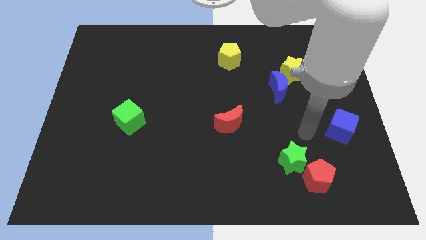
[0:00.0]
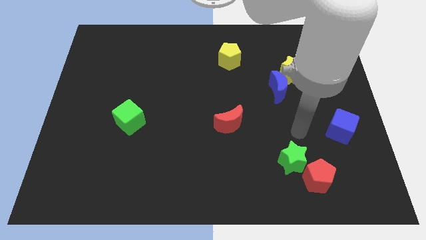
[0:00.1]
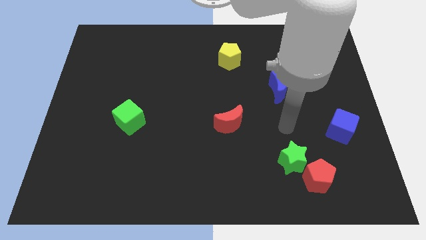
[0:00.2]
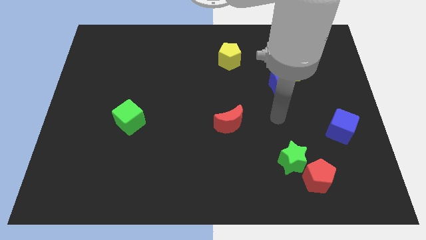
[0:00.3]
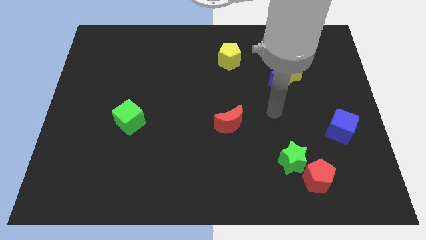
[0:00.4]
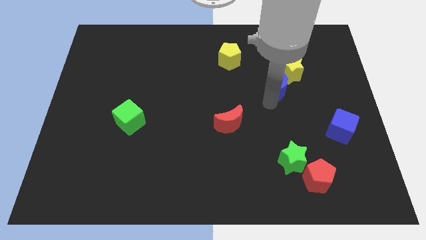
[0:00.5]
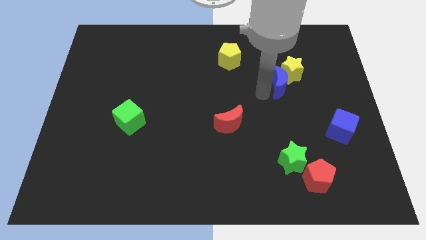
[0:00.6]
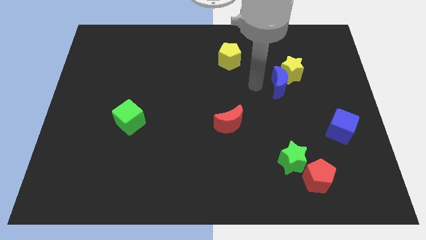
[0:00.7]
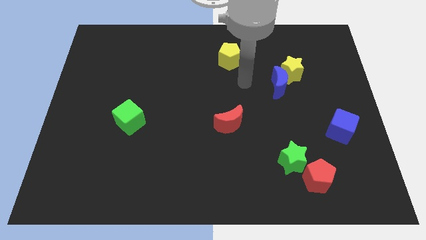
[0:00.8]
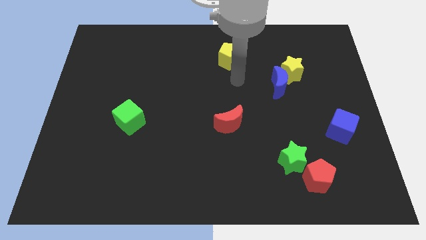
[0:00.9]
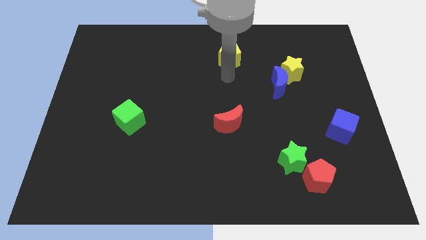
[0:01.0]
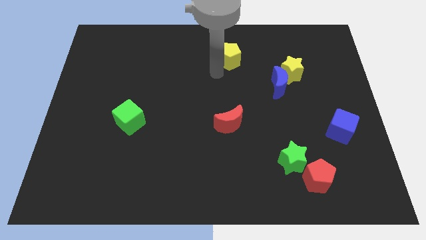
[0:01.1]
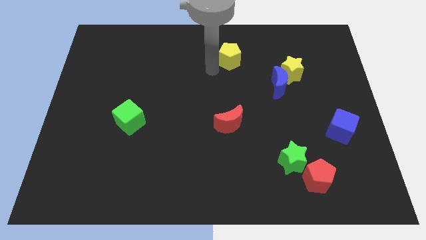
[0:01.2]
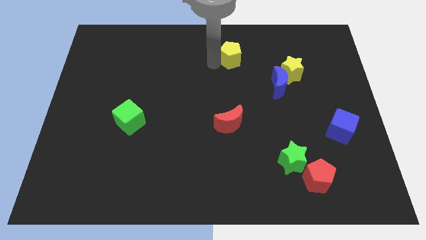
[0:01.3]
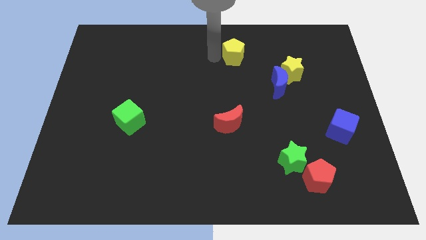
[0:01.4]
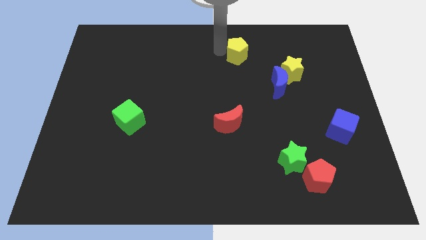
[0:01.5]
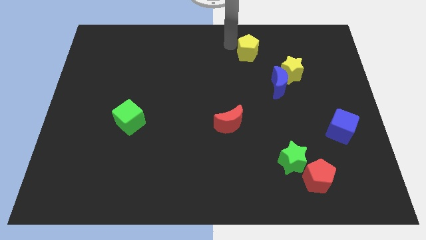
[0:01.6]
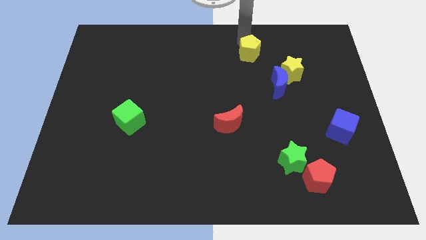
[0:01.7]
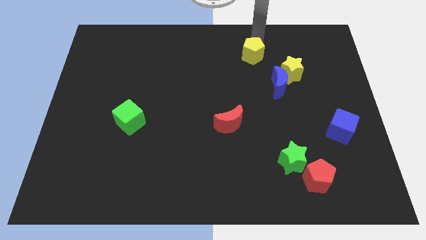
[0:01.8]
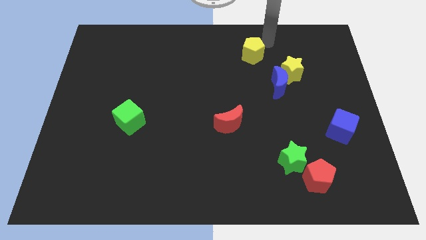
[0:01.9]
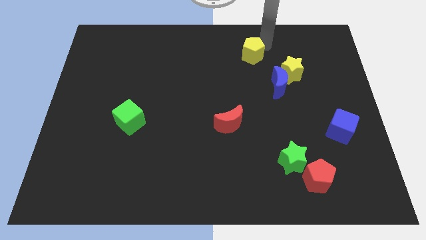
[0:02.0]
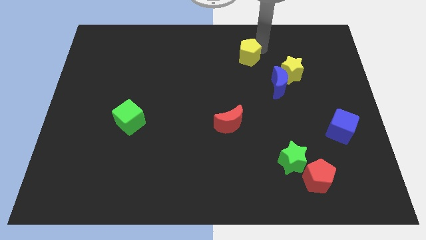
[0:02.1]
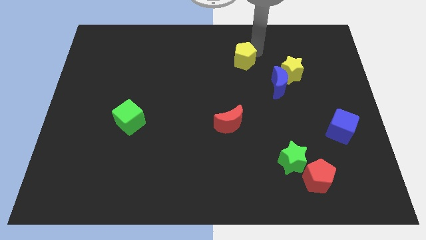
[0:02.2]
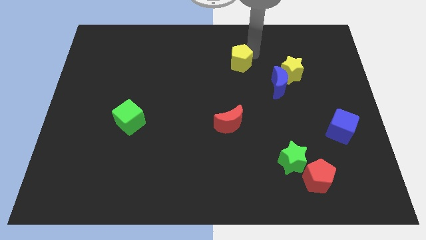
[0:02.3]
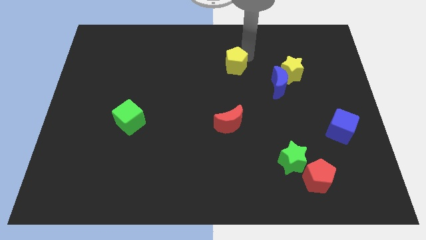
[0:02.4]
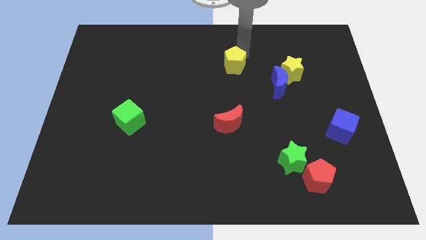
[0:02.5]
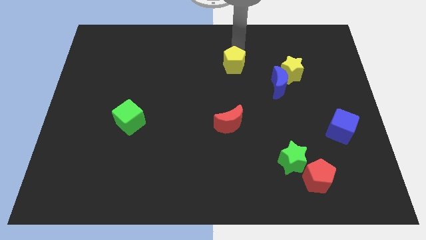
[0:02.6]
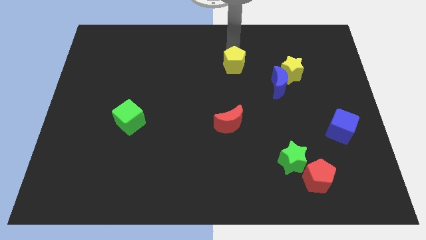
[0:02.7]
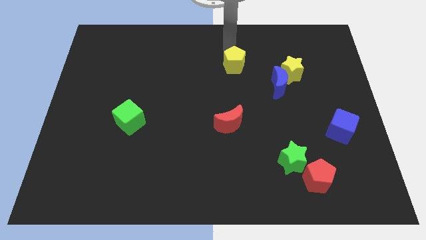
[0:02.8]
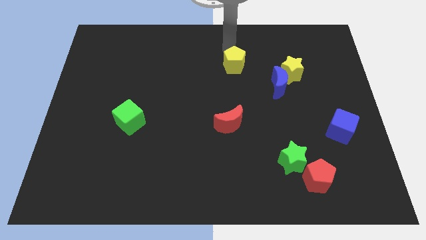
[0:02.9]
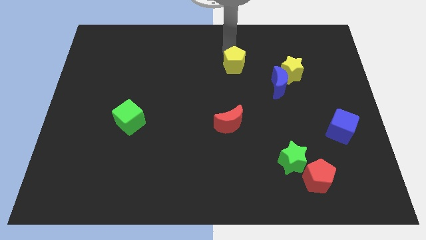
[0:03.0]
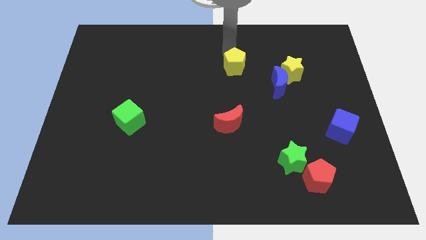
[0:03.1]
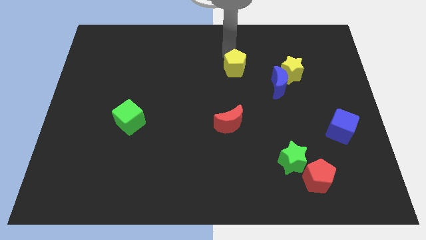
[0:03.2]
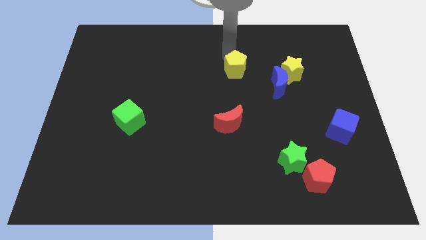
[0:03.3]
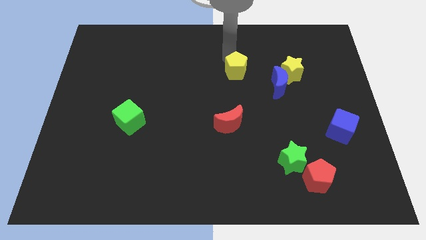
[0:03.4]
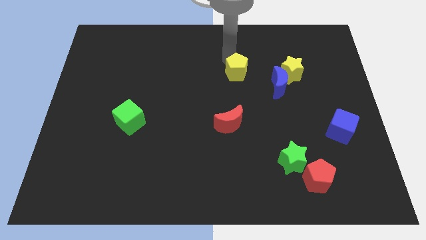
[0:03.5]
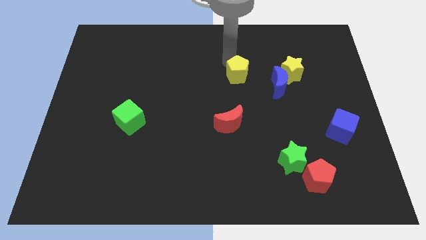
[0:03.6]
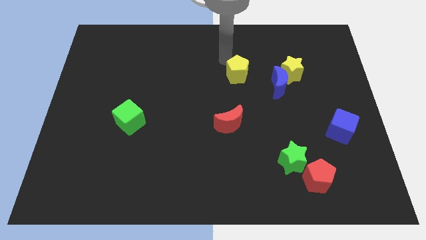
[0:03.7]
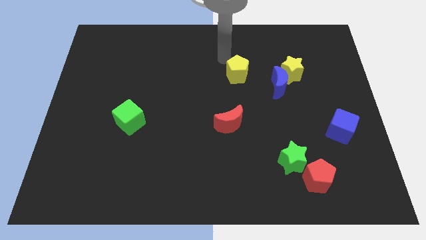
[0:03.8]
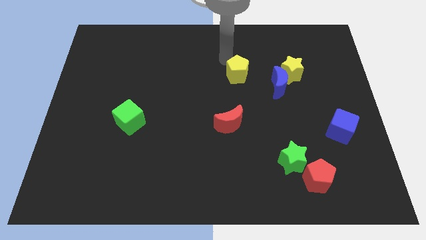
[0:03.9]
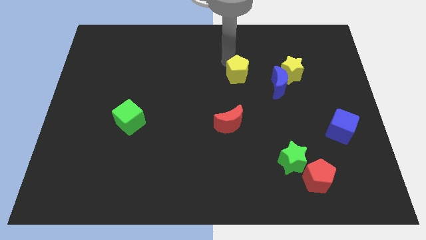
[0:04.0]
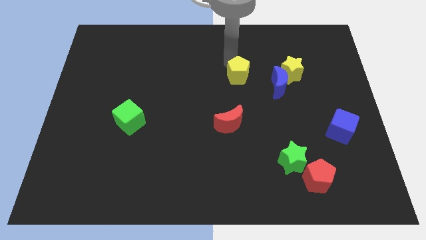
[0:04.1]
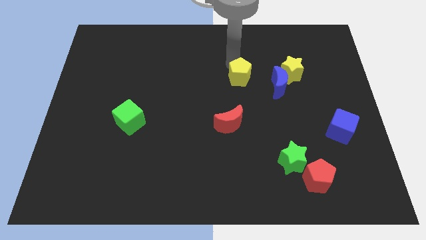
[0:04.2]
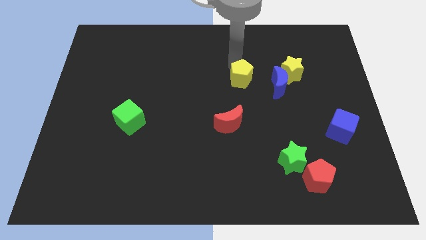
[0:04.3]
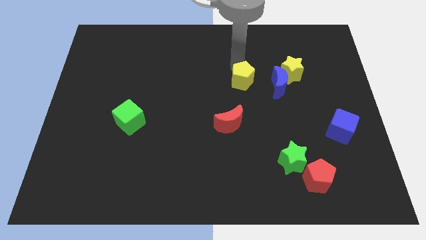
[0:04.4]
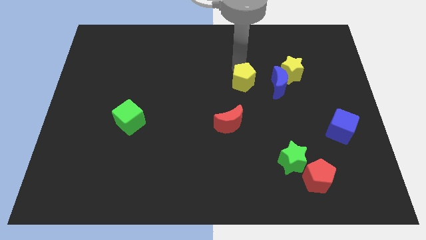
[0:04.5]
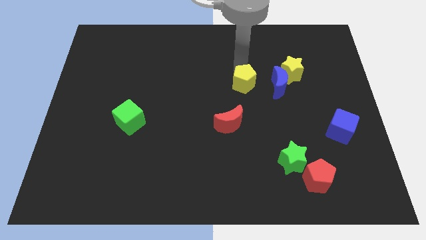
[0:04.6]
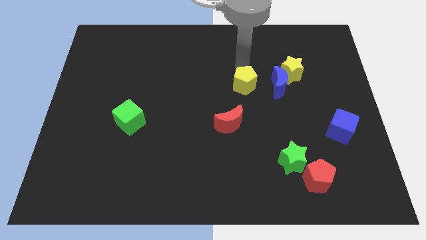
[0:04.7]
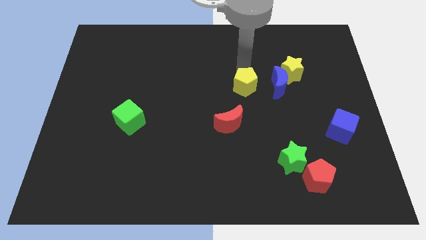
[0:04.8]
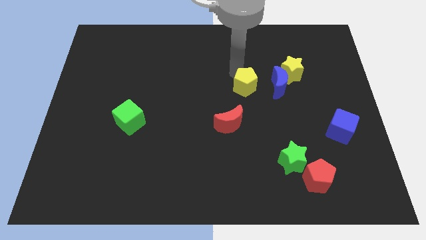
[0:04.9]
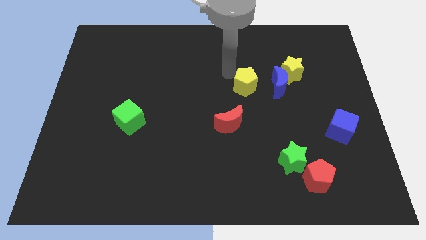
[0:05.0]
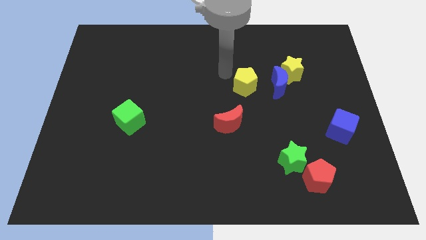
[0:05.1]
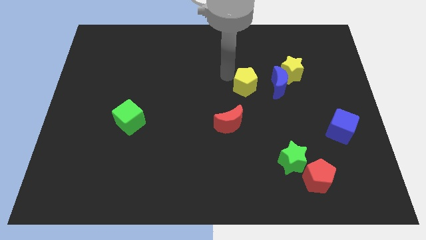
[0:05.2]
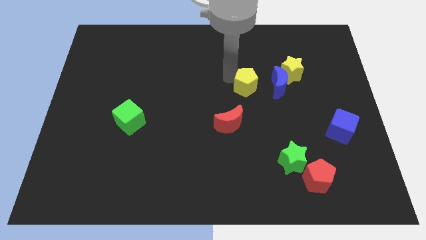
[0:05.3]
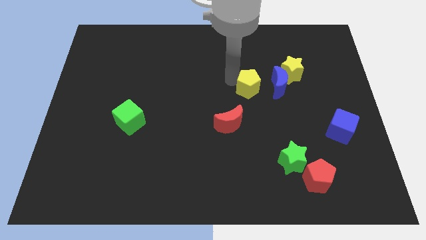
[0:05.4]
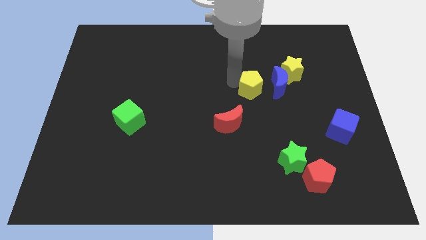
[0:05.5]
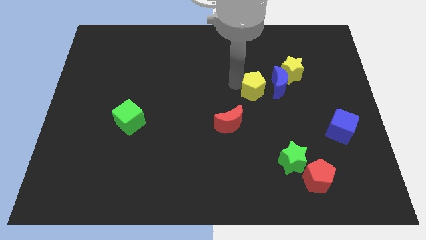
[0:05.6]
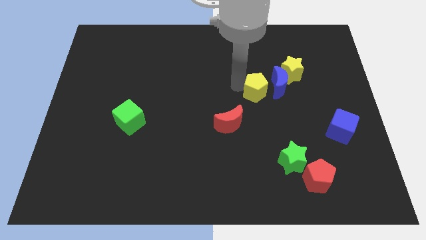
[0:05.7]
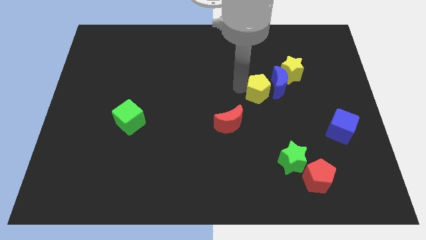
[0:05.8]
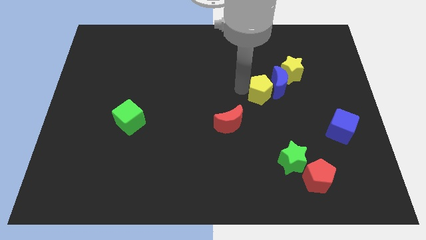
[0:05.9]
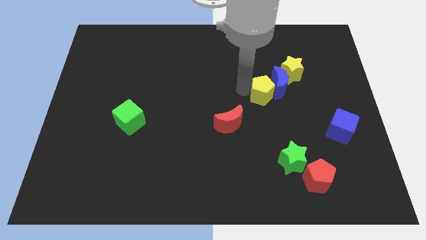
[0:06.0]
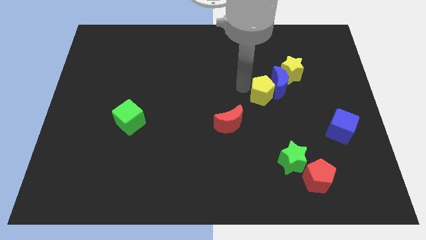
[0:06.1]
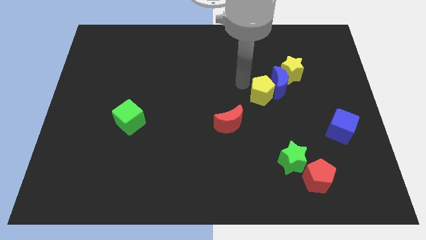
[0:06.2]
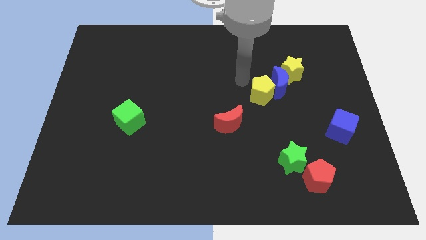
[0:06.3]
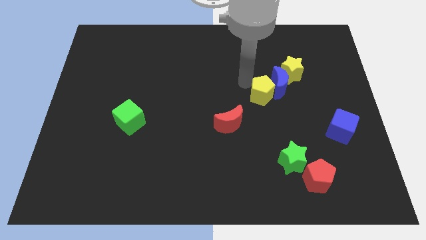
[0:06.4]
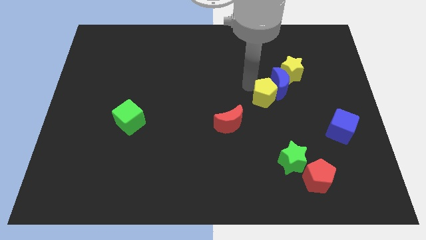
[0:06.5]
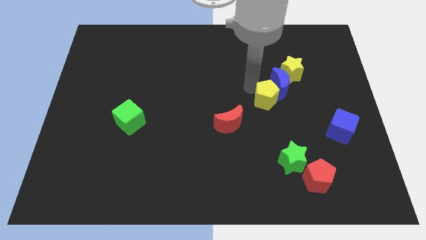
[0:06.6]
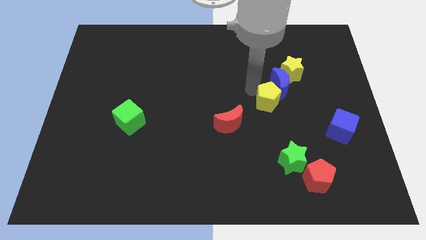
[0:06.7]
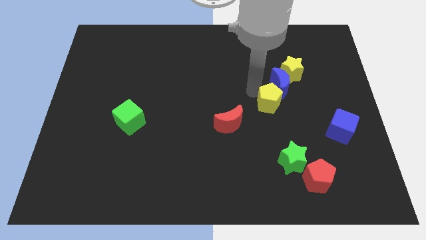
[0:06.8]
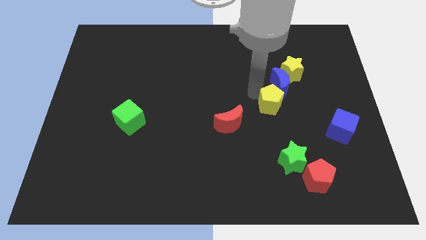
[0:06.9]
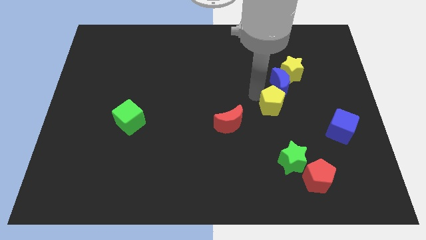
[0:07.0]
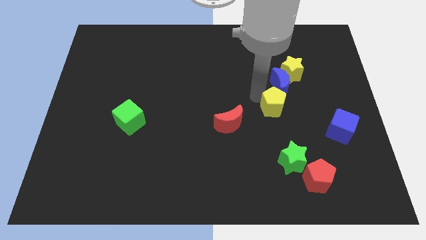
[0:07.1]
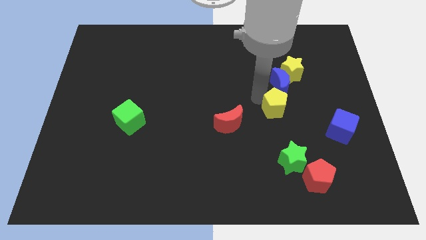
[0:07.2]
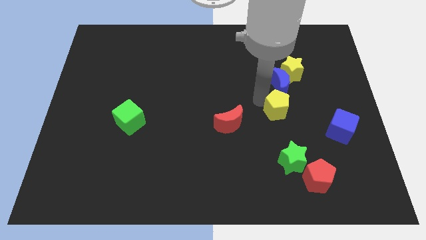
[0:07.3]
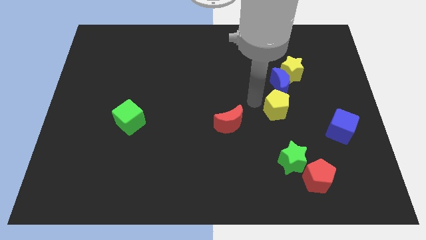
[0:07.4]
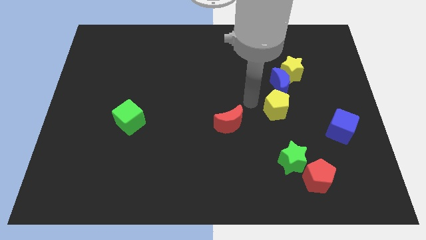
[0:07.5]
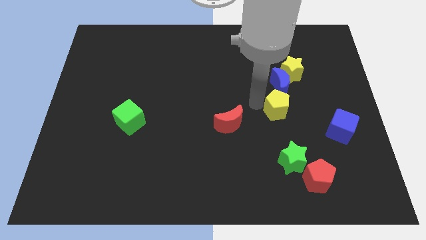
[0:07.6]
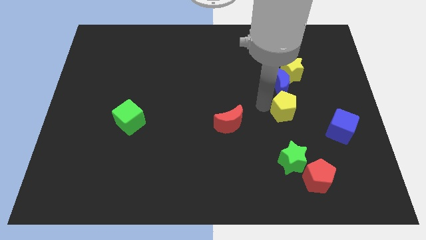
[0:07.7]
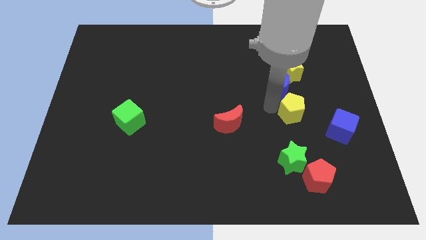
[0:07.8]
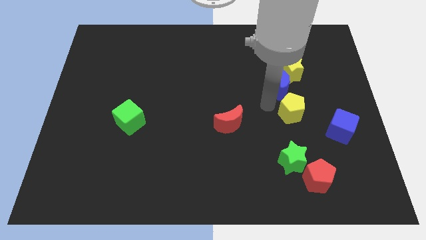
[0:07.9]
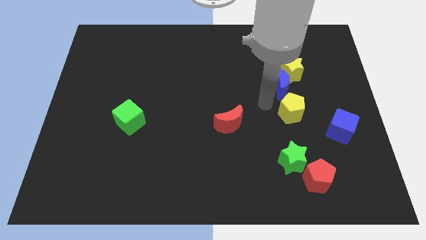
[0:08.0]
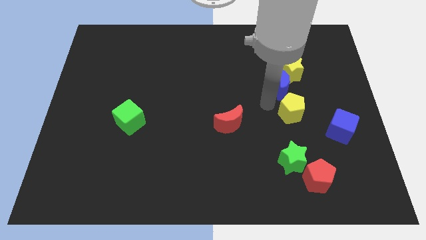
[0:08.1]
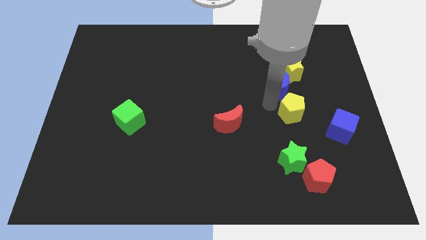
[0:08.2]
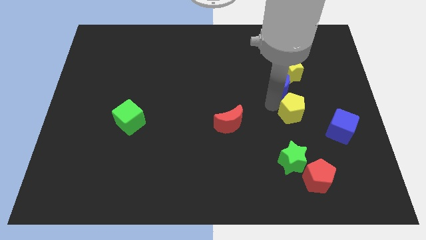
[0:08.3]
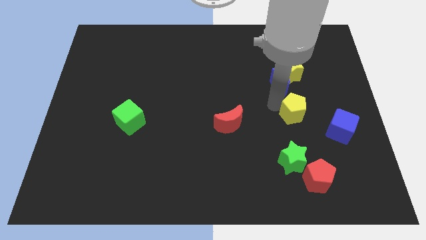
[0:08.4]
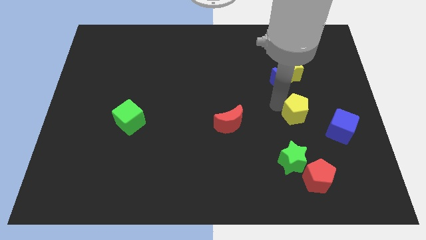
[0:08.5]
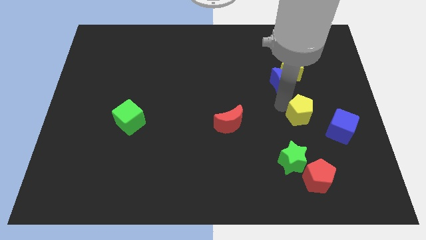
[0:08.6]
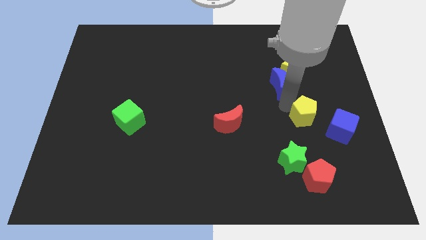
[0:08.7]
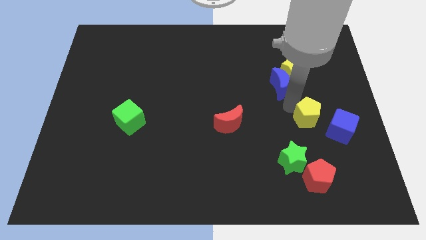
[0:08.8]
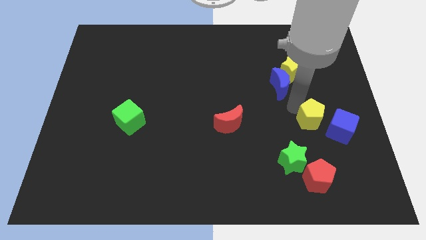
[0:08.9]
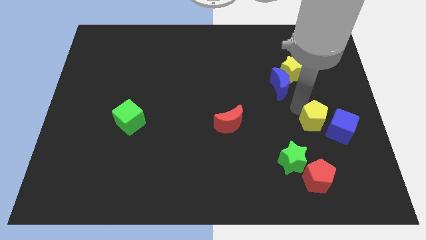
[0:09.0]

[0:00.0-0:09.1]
move the yellow pentagon towards the blue cube
